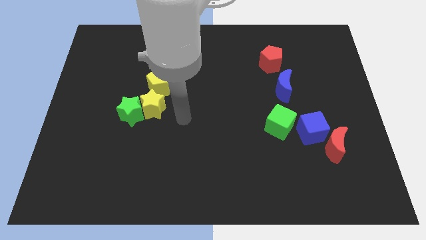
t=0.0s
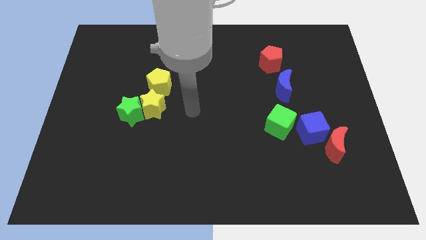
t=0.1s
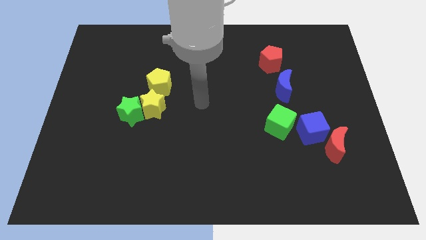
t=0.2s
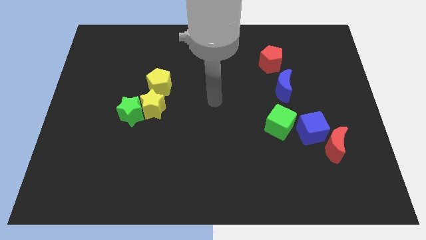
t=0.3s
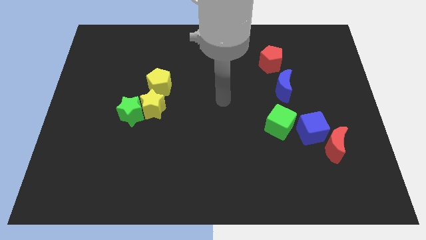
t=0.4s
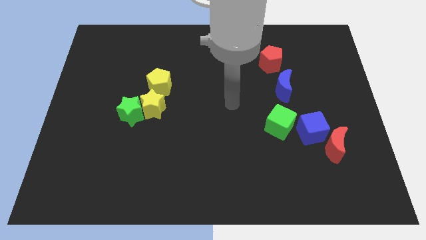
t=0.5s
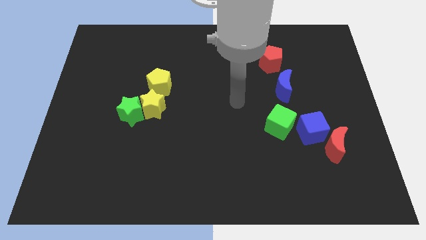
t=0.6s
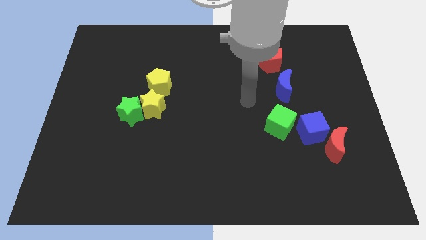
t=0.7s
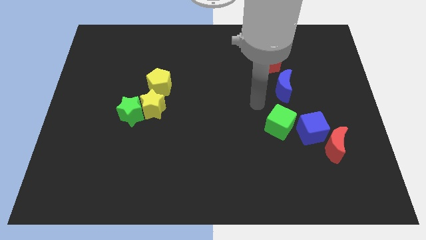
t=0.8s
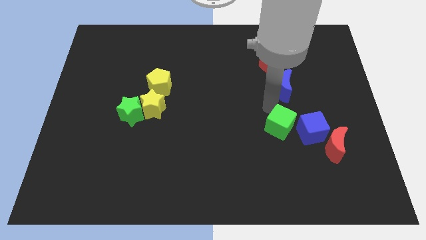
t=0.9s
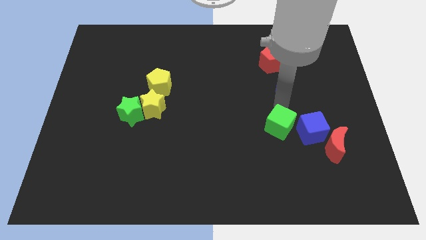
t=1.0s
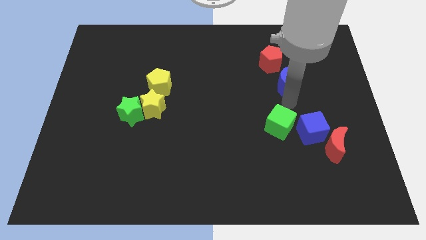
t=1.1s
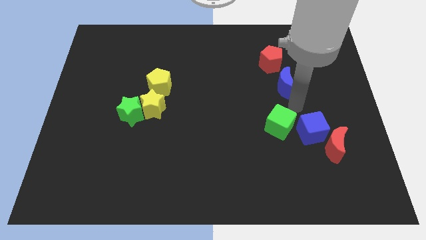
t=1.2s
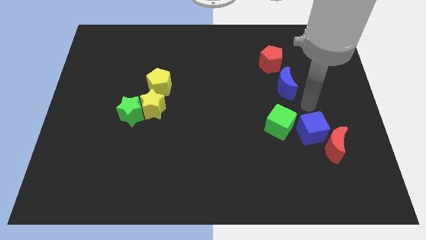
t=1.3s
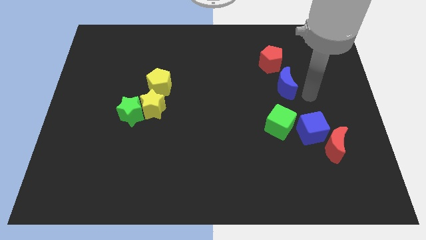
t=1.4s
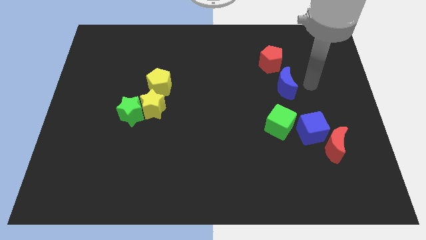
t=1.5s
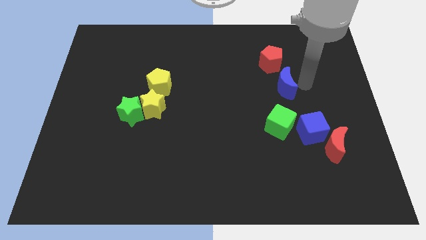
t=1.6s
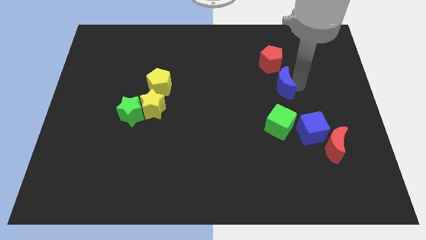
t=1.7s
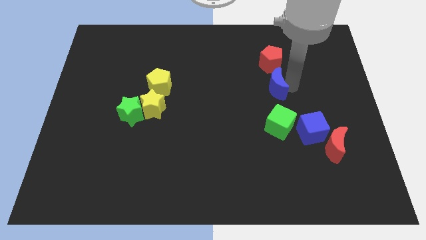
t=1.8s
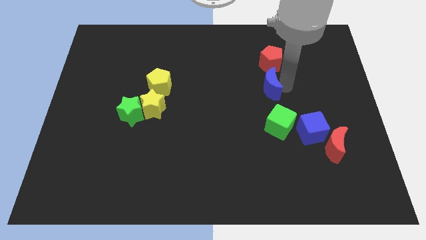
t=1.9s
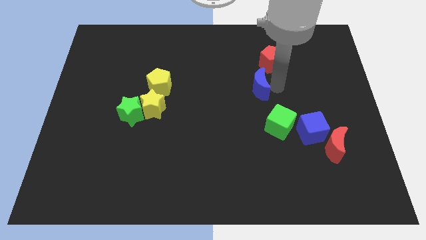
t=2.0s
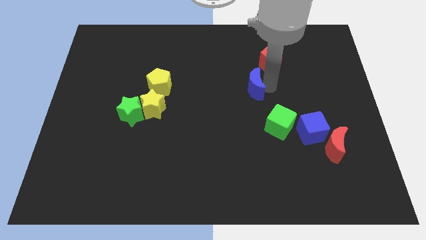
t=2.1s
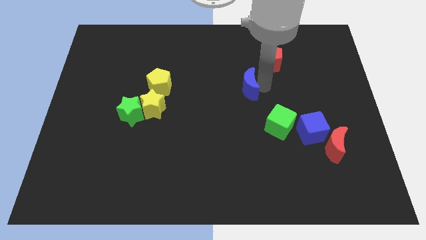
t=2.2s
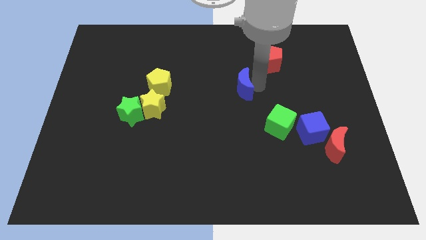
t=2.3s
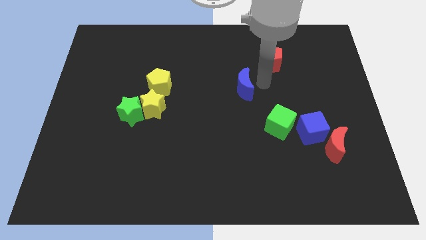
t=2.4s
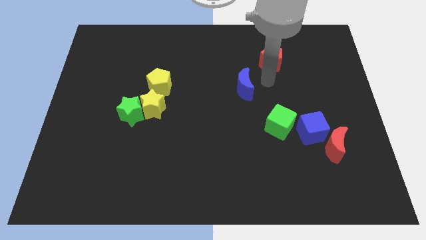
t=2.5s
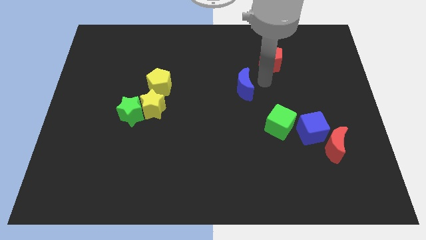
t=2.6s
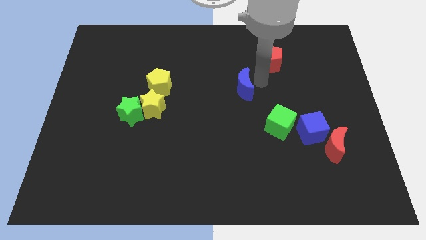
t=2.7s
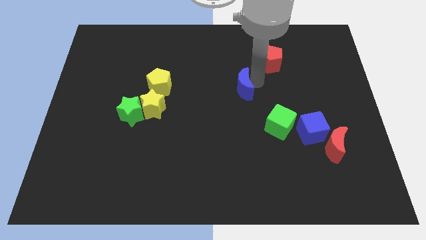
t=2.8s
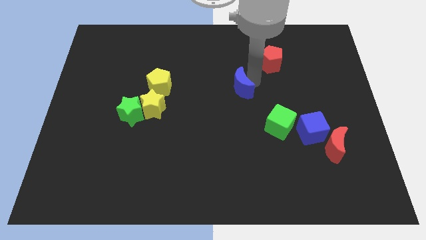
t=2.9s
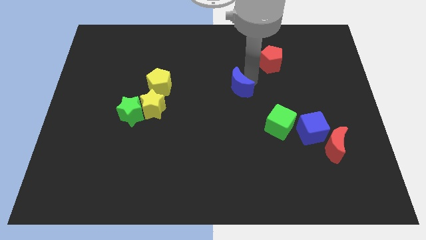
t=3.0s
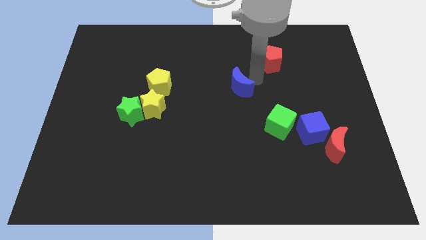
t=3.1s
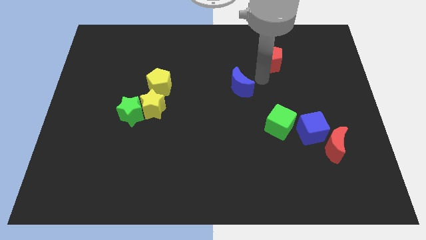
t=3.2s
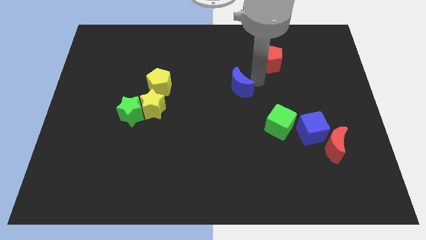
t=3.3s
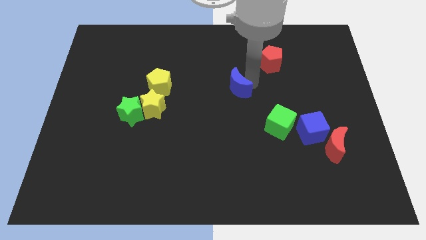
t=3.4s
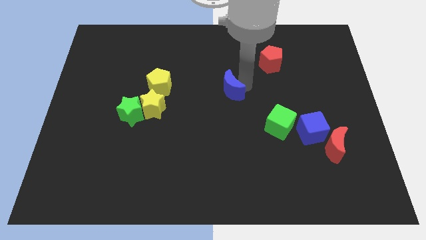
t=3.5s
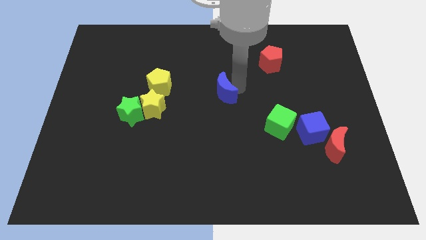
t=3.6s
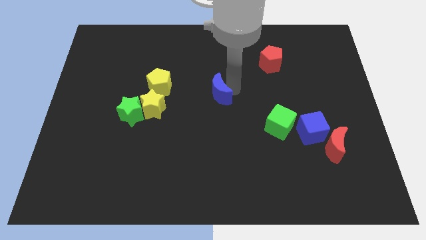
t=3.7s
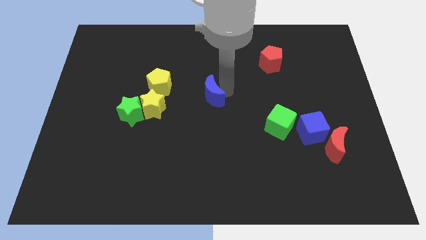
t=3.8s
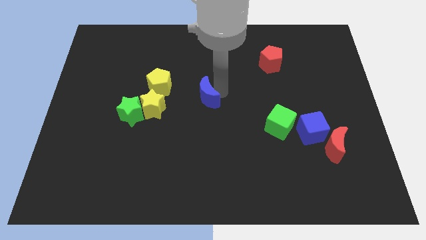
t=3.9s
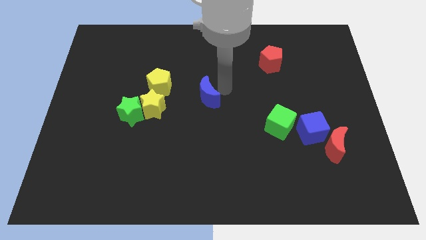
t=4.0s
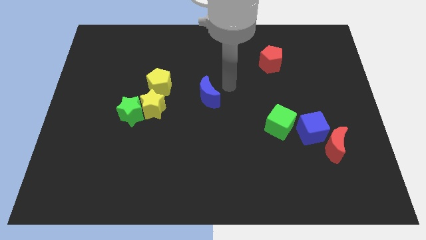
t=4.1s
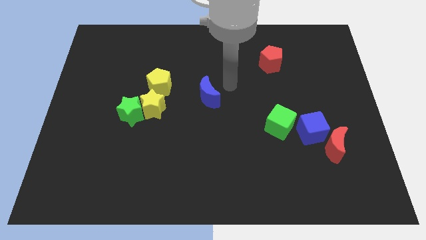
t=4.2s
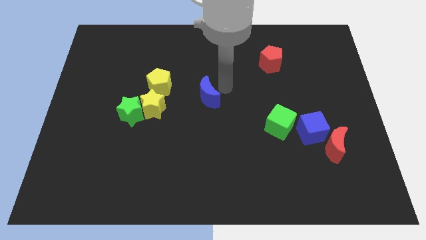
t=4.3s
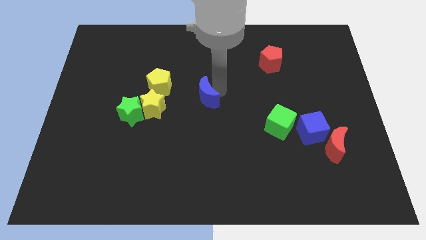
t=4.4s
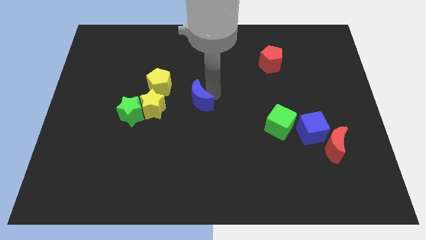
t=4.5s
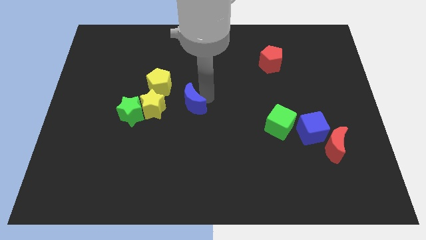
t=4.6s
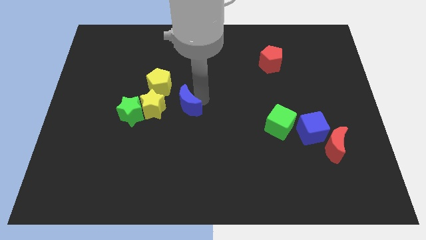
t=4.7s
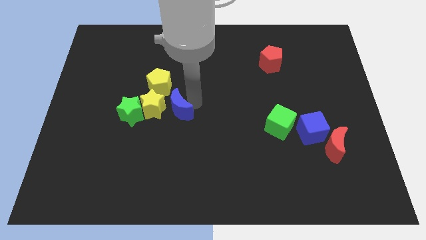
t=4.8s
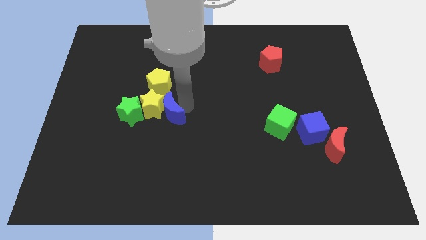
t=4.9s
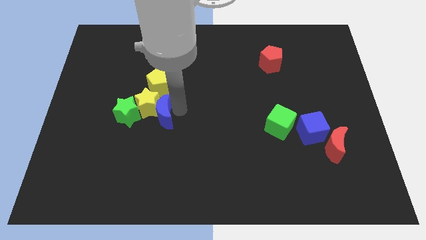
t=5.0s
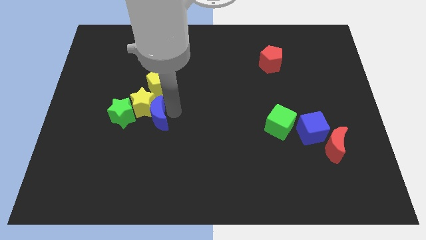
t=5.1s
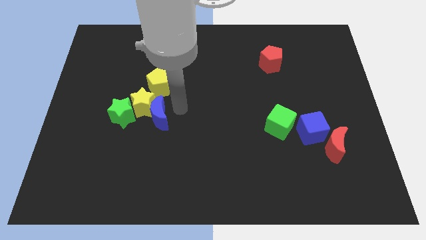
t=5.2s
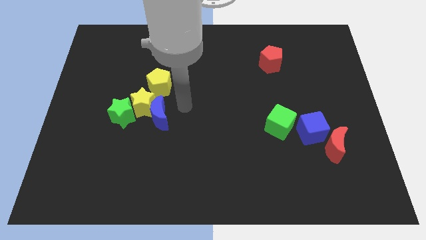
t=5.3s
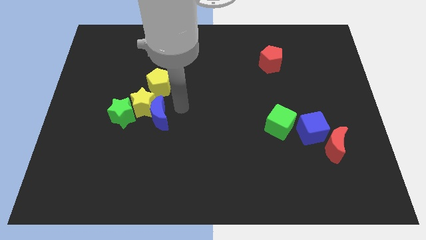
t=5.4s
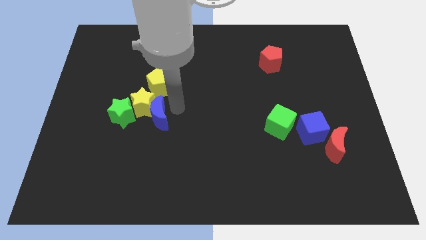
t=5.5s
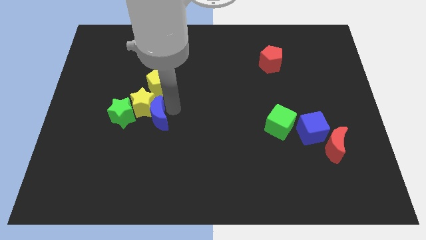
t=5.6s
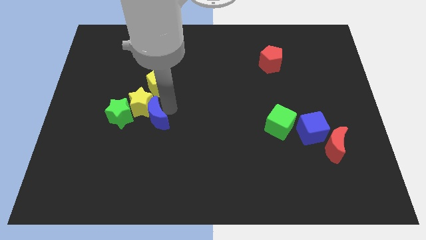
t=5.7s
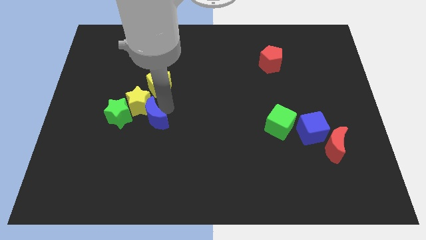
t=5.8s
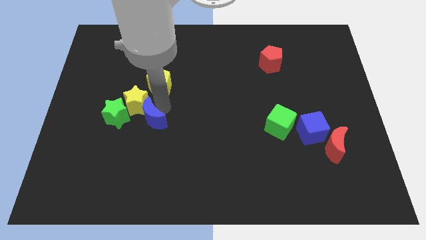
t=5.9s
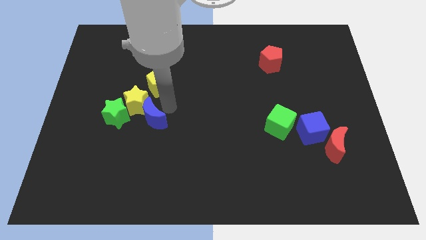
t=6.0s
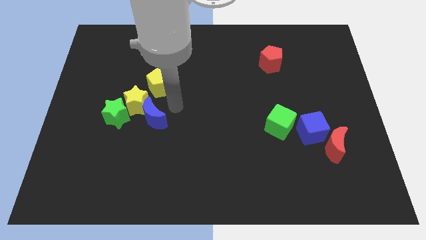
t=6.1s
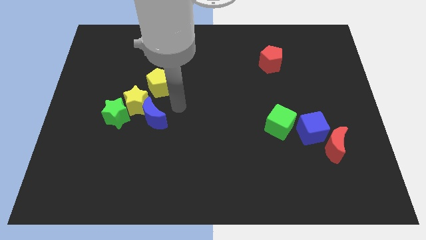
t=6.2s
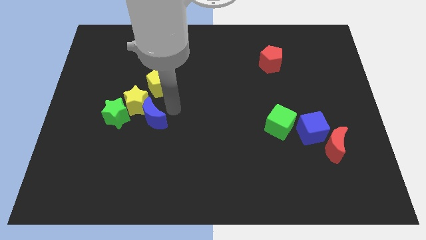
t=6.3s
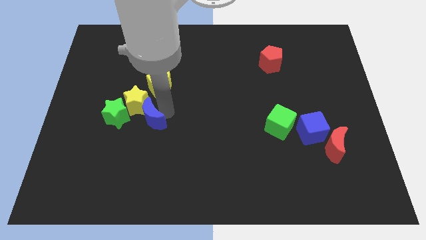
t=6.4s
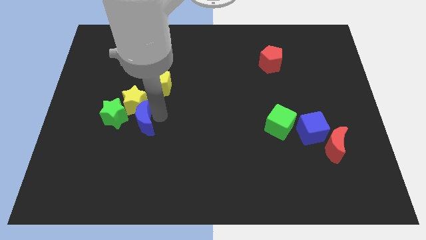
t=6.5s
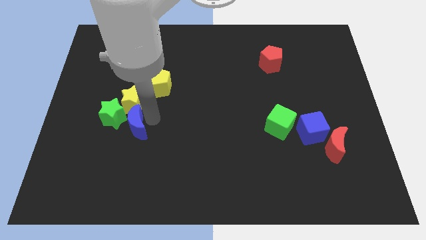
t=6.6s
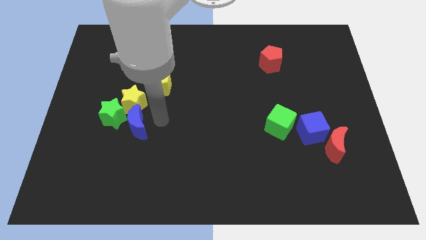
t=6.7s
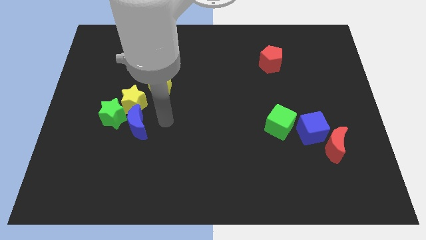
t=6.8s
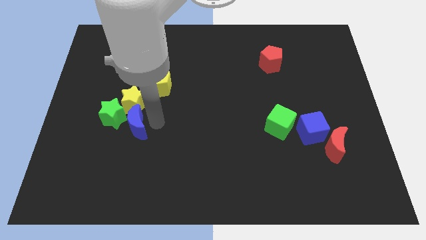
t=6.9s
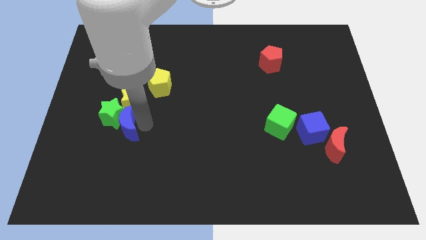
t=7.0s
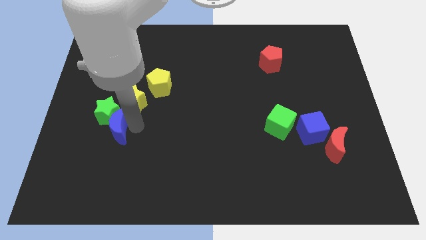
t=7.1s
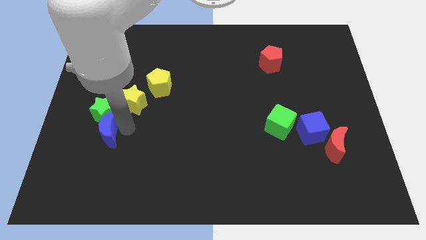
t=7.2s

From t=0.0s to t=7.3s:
push the blue moon to the bottom left side of the green star
